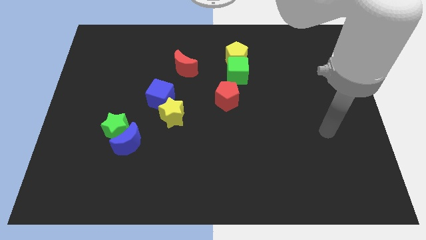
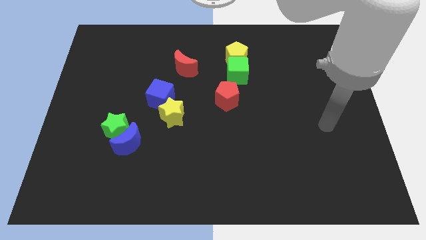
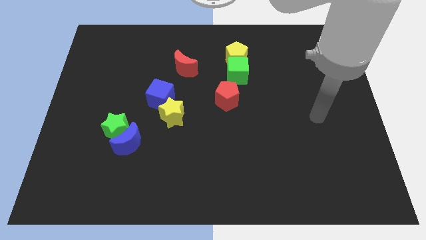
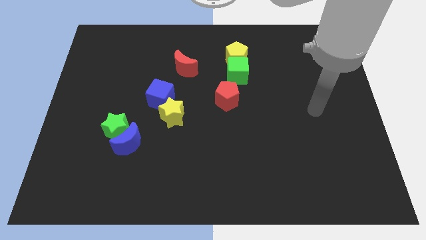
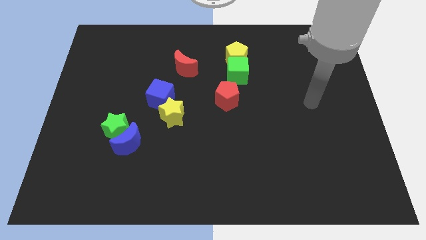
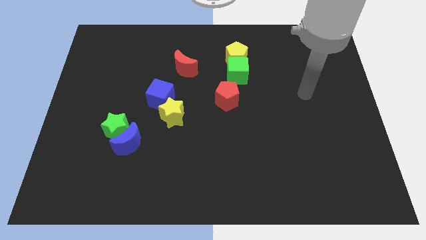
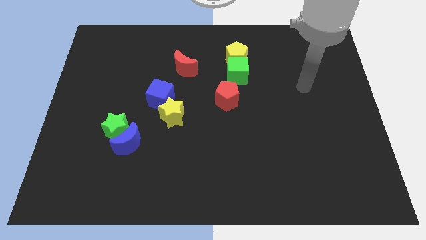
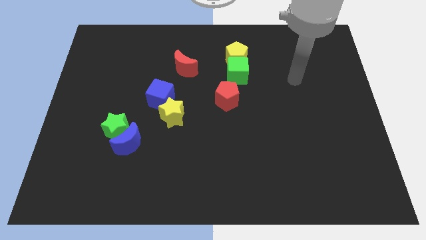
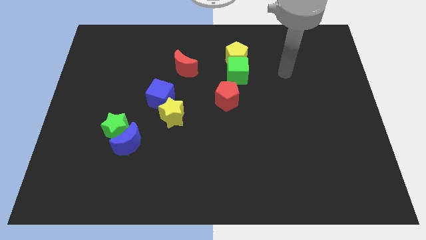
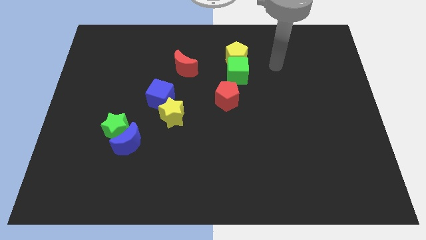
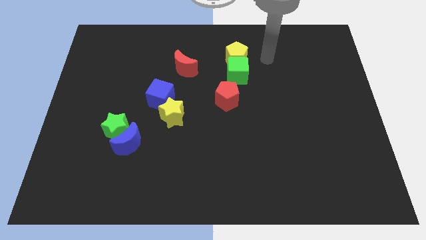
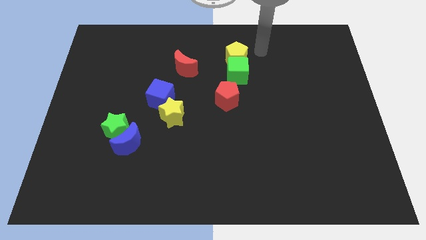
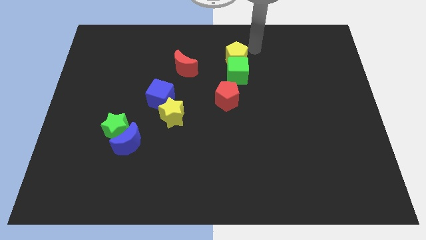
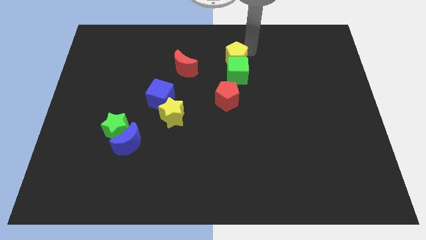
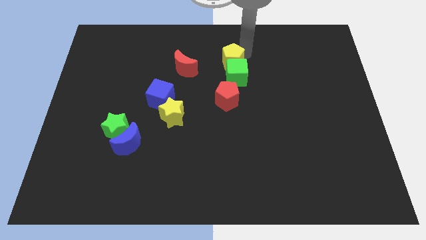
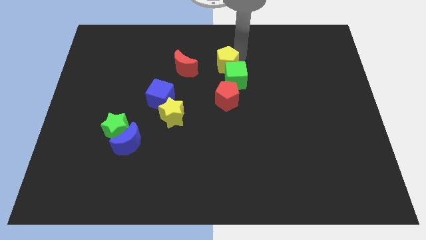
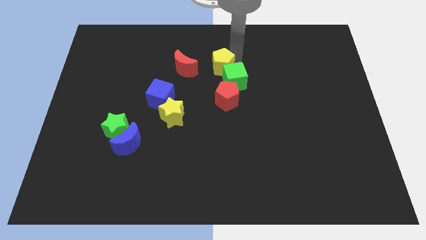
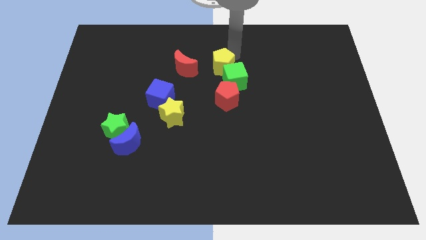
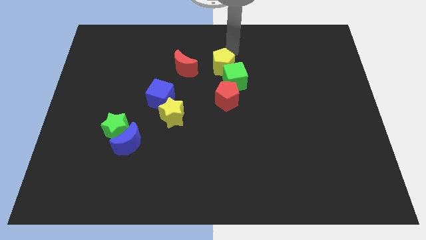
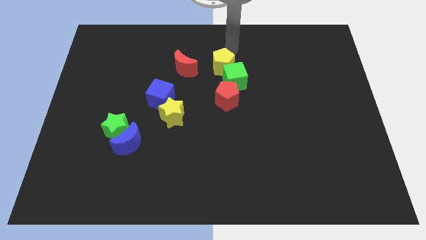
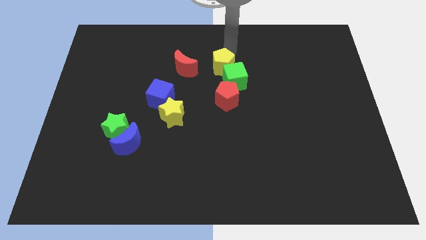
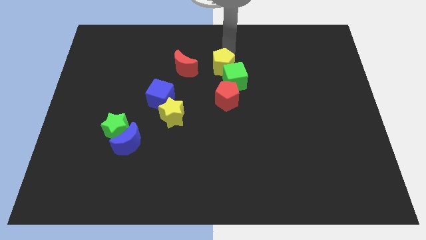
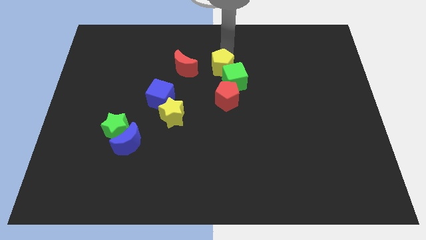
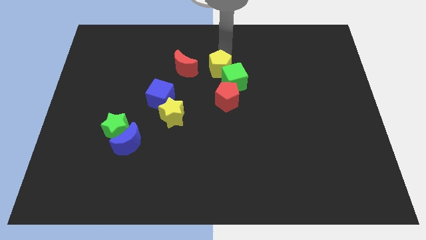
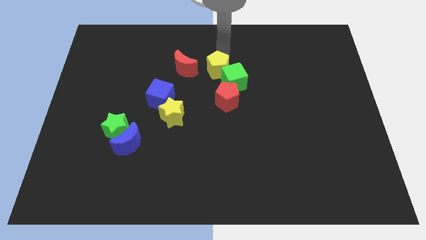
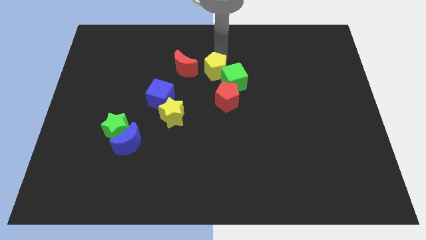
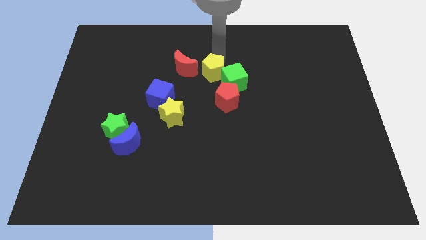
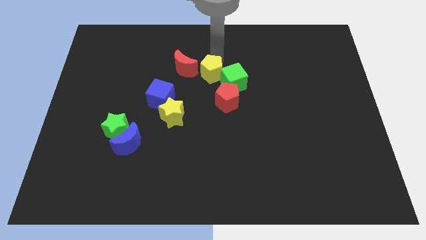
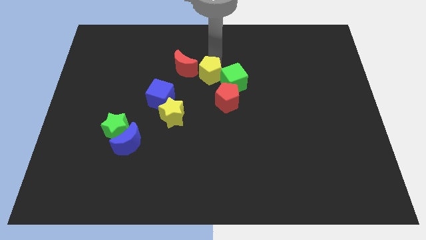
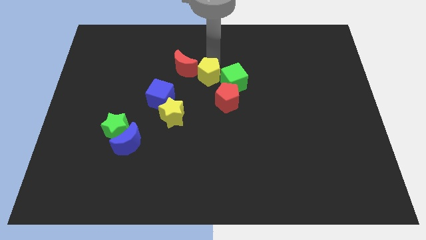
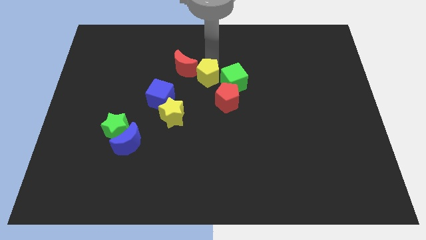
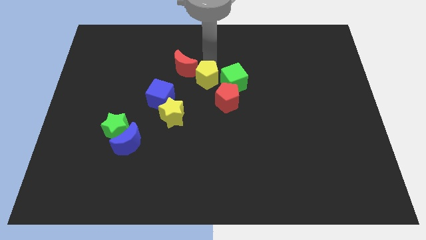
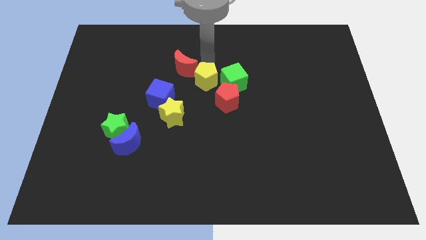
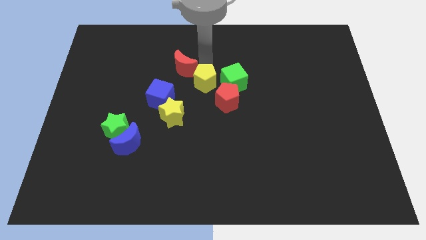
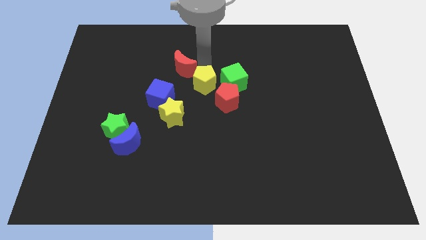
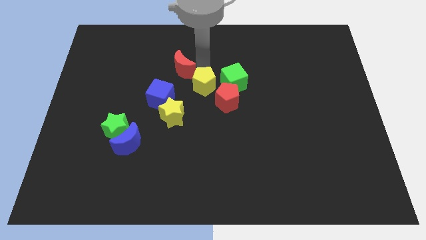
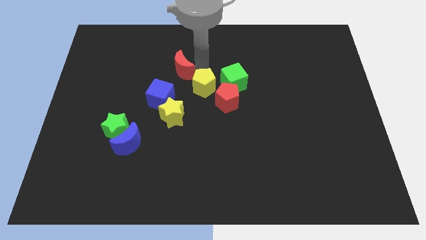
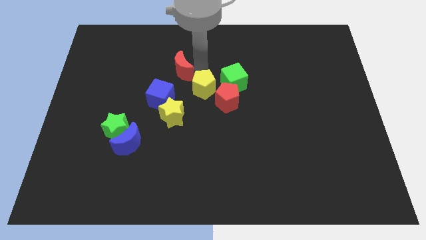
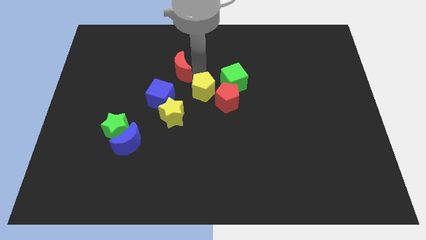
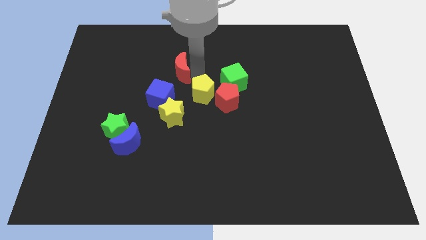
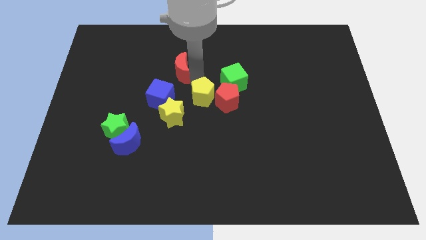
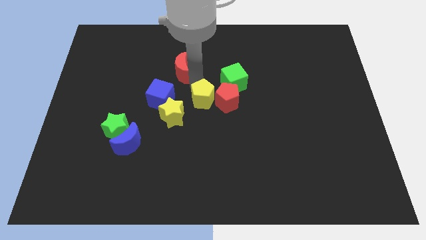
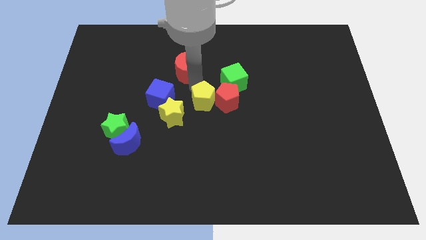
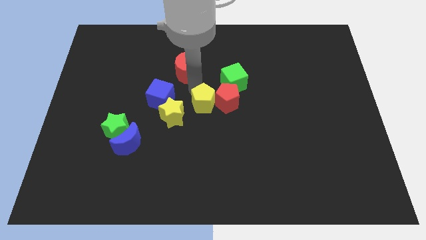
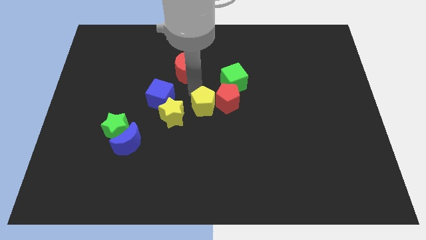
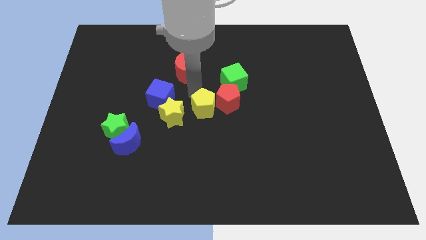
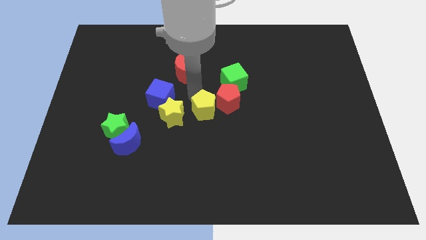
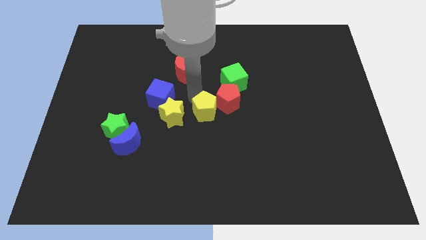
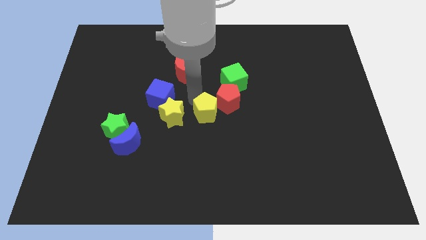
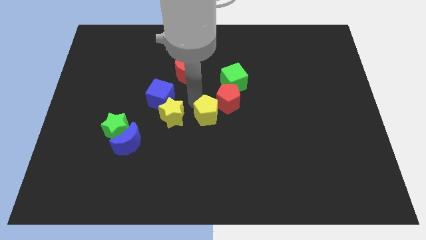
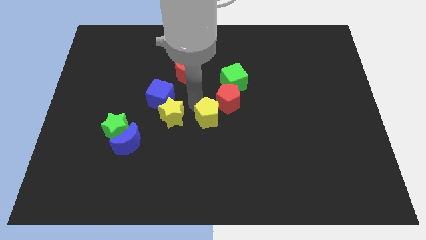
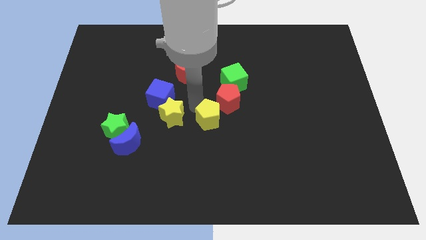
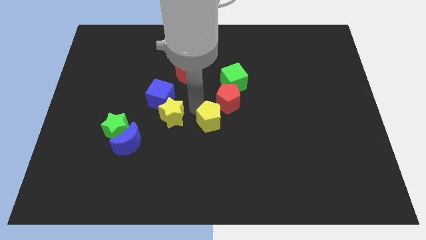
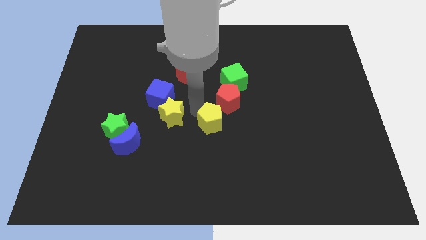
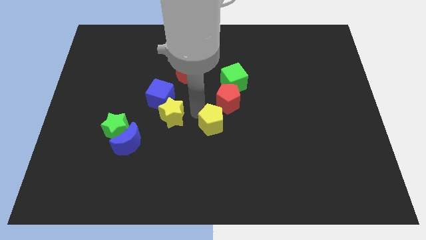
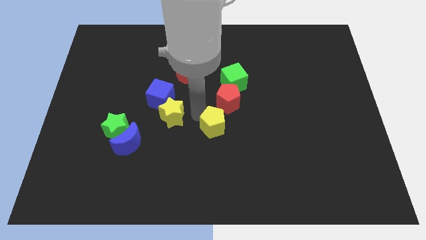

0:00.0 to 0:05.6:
slide the yellow pentagon down

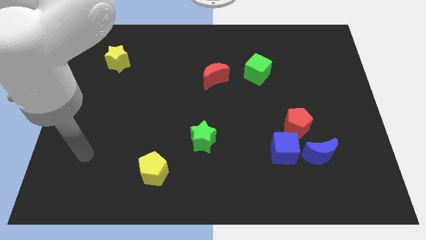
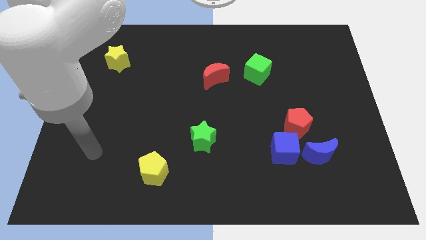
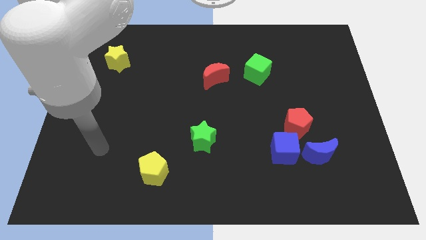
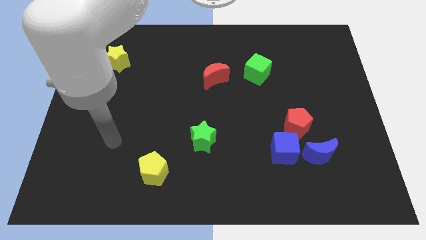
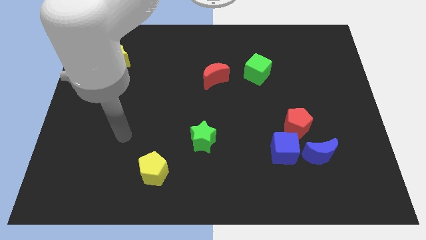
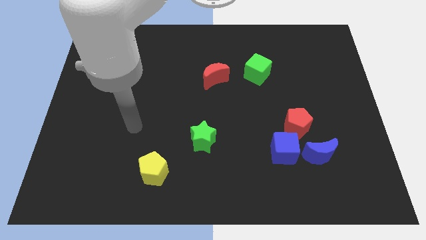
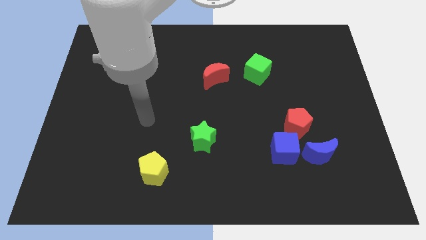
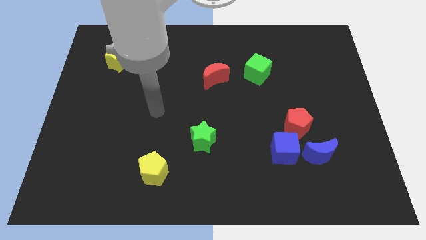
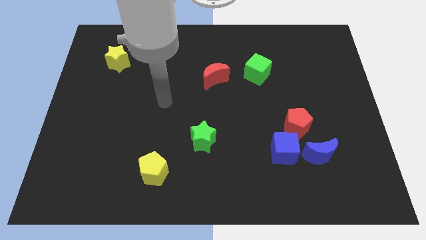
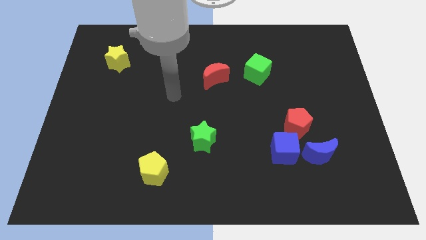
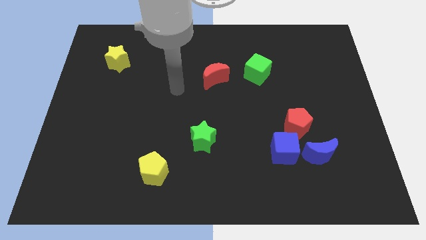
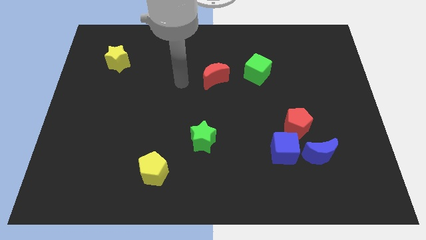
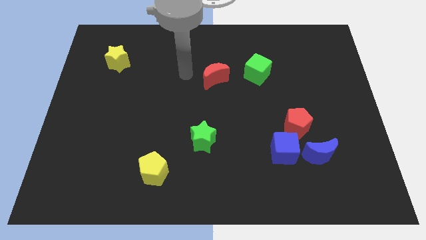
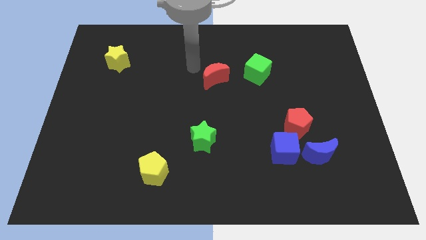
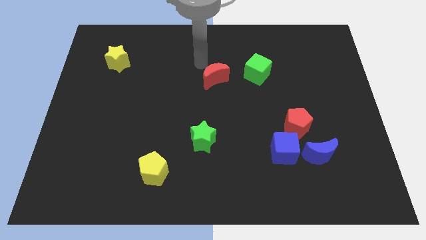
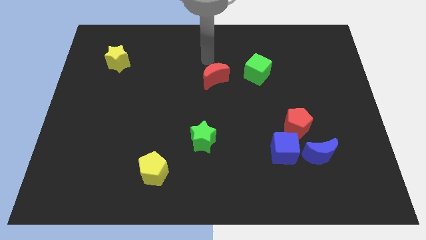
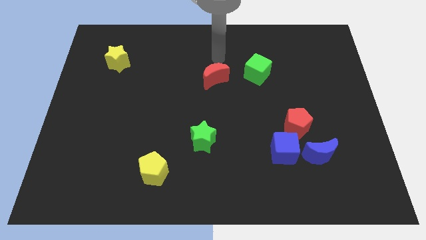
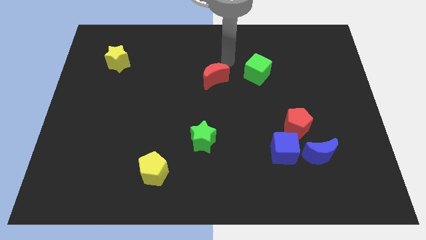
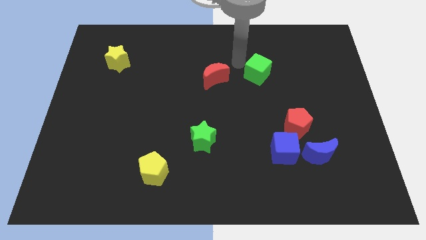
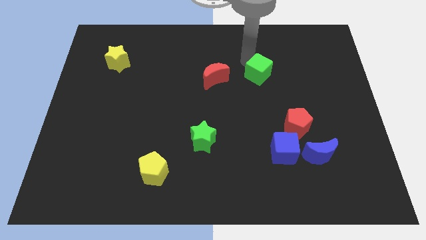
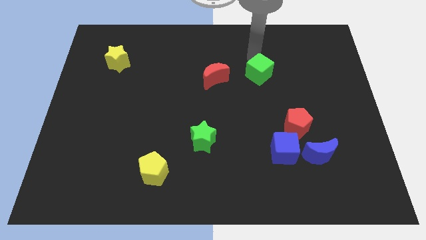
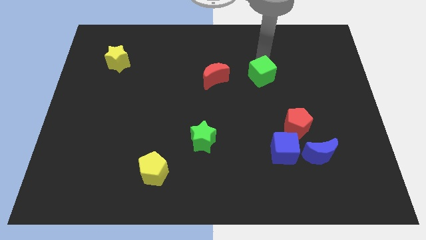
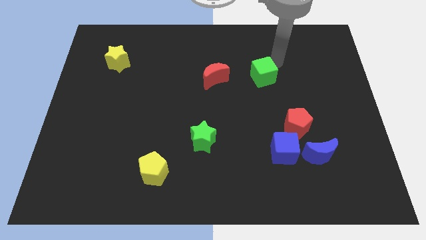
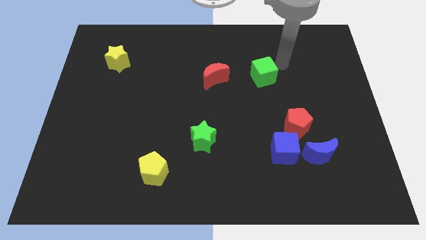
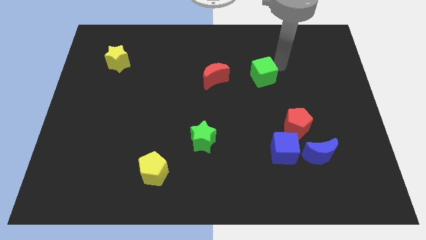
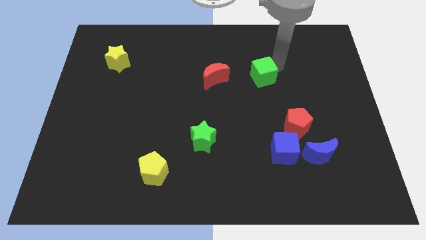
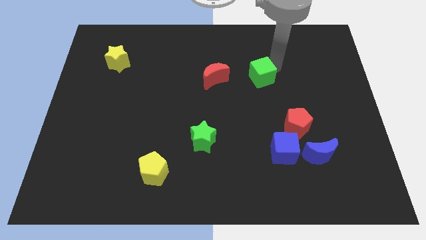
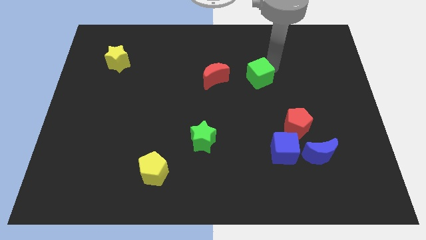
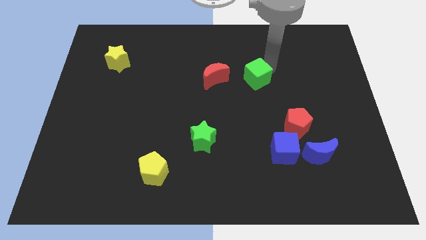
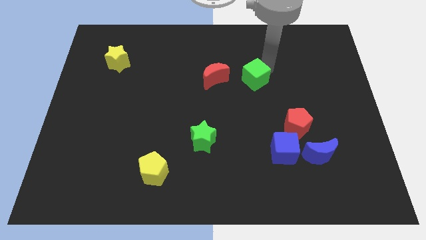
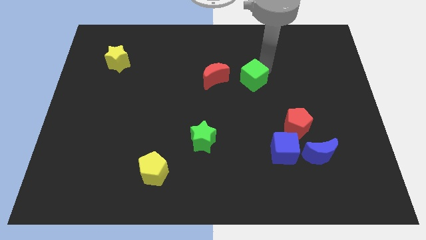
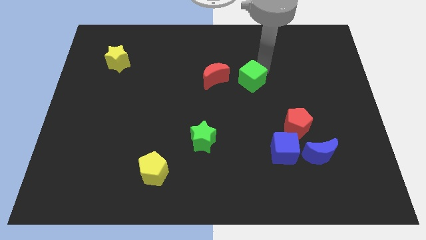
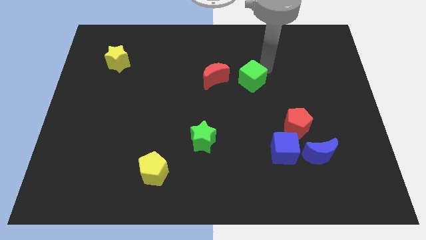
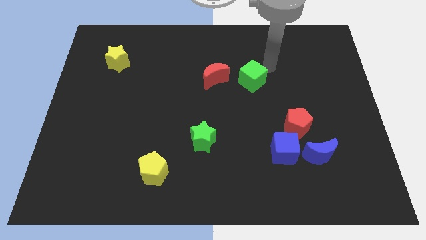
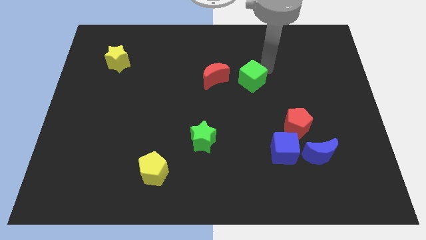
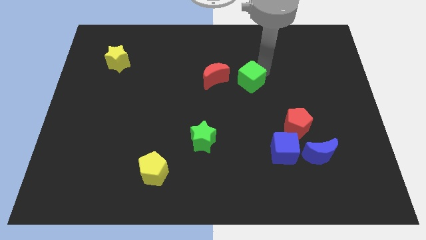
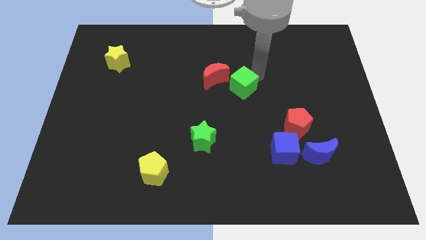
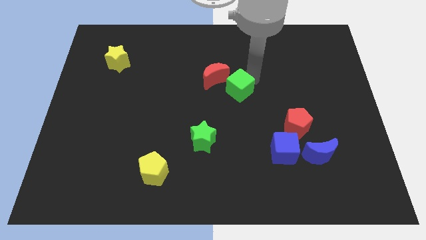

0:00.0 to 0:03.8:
slightly slide the green cube diagonally down and left
